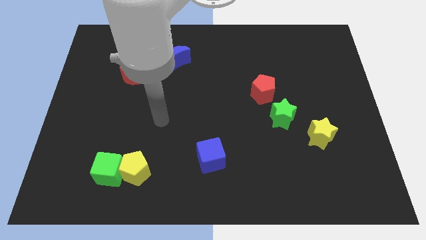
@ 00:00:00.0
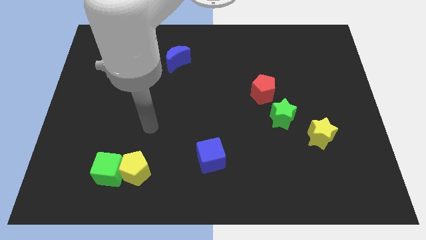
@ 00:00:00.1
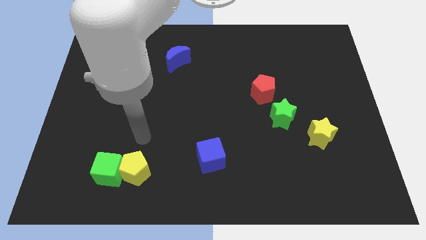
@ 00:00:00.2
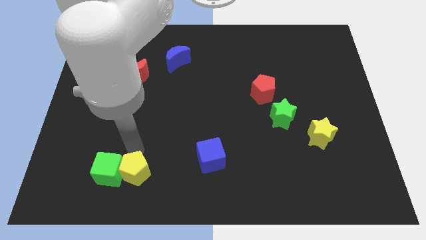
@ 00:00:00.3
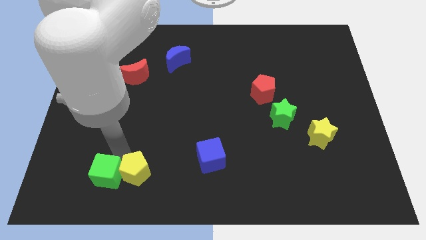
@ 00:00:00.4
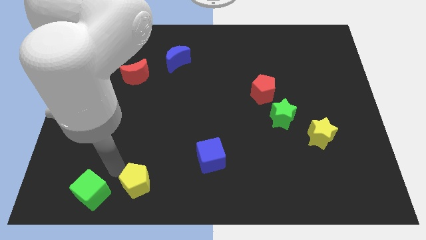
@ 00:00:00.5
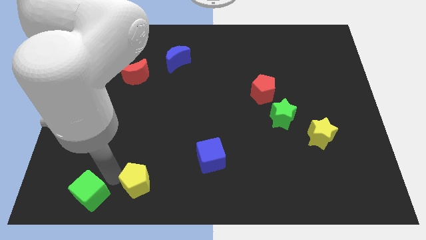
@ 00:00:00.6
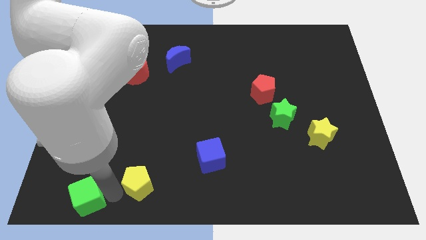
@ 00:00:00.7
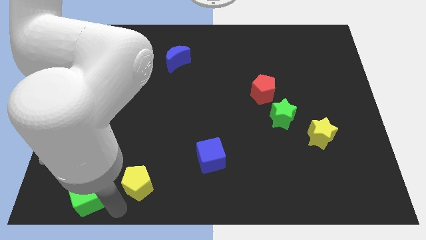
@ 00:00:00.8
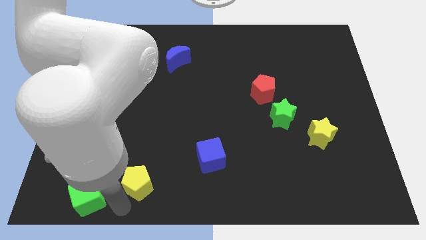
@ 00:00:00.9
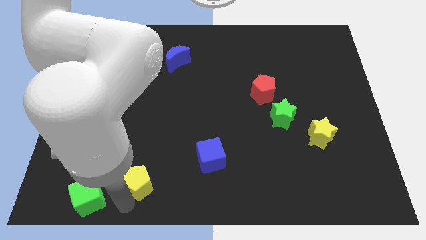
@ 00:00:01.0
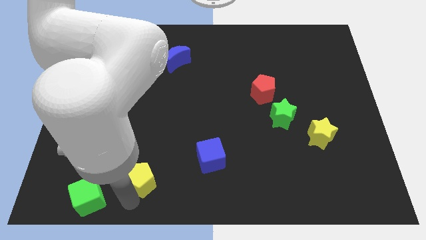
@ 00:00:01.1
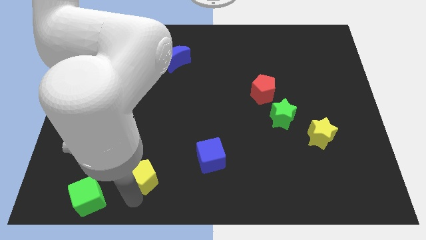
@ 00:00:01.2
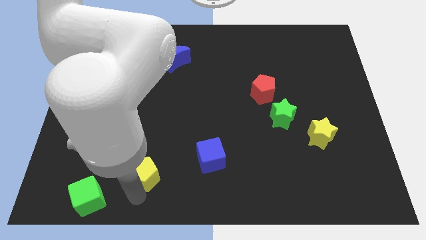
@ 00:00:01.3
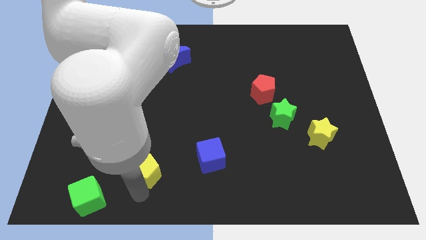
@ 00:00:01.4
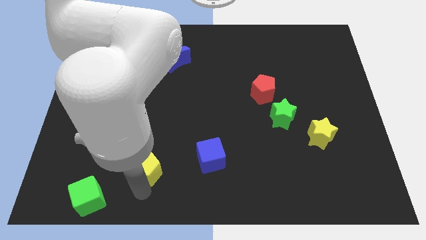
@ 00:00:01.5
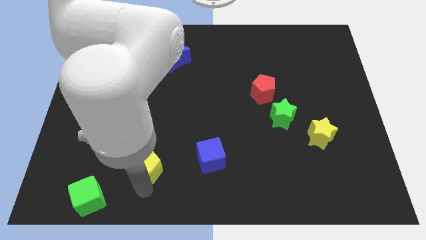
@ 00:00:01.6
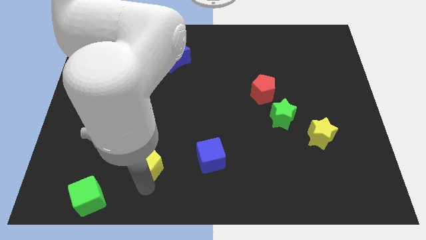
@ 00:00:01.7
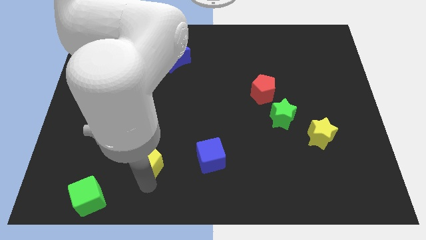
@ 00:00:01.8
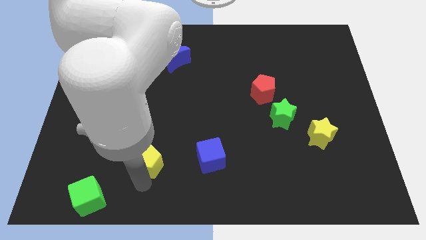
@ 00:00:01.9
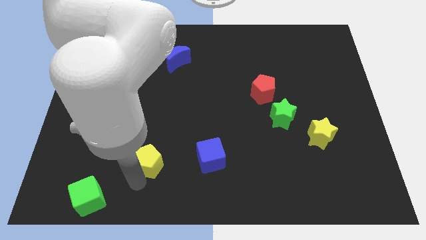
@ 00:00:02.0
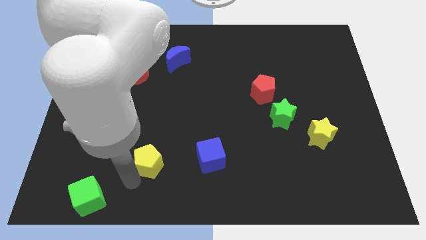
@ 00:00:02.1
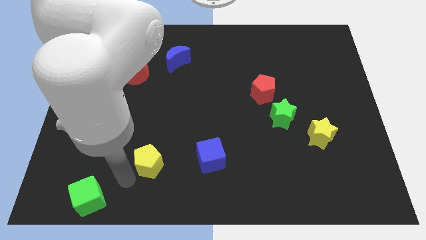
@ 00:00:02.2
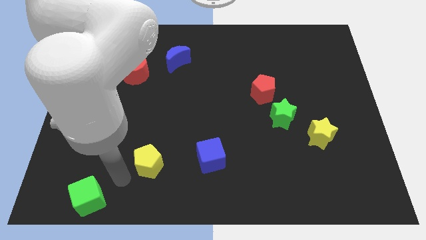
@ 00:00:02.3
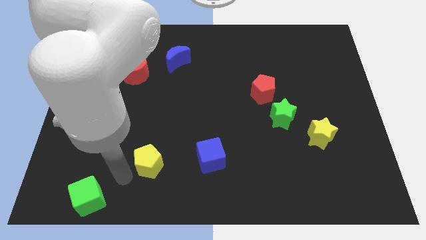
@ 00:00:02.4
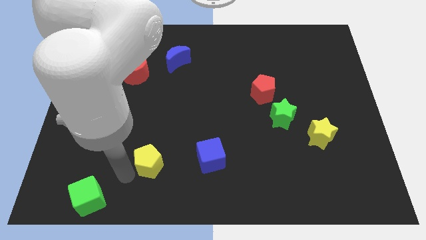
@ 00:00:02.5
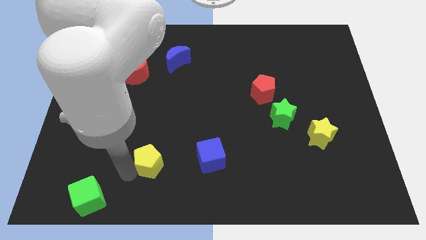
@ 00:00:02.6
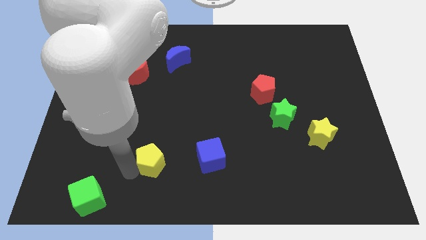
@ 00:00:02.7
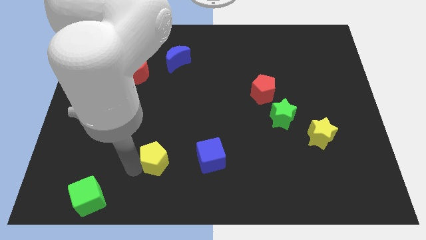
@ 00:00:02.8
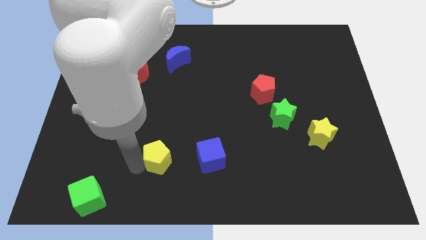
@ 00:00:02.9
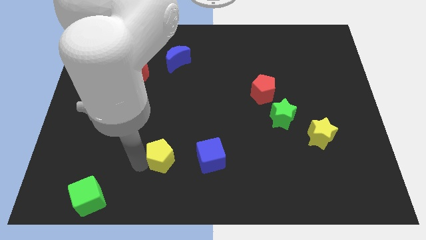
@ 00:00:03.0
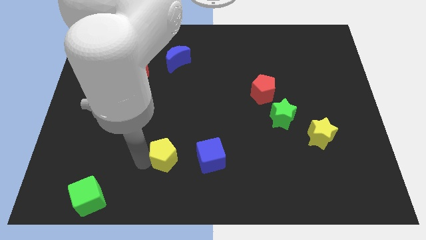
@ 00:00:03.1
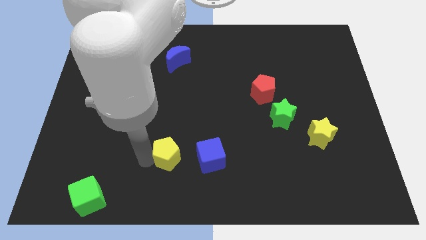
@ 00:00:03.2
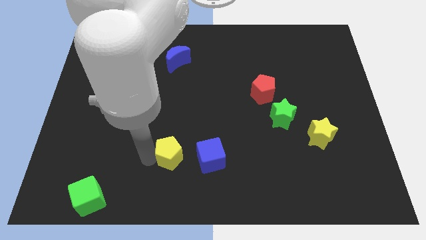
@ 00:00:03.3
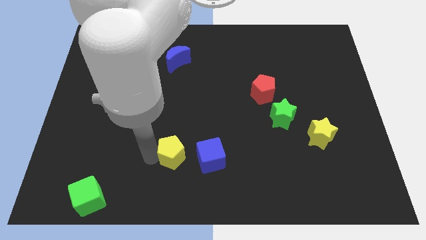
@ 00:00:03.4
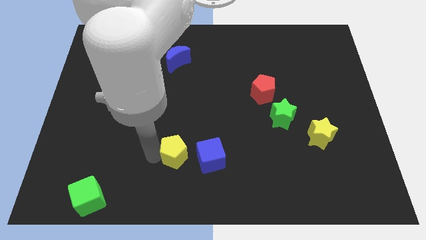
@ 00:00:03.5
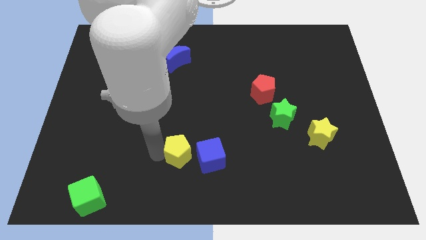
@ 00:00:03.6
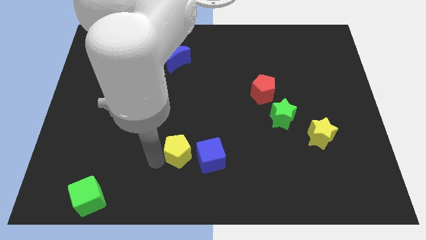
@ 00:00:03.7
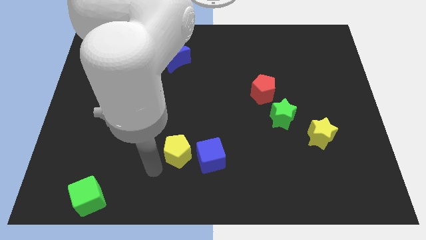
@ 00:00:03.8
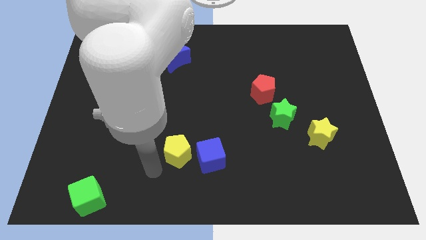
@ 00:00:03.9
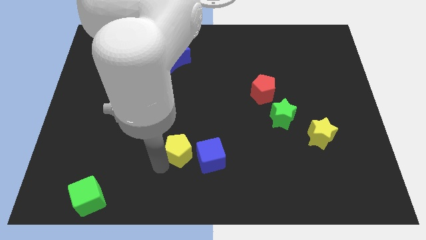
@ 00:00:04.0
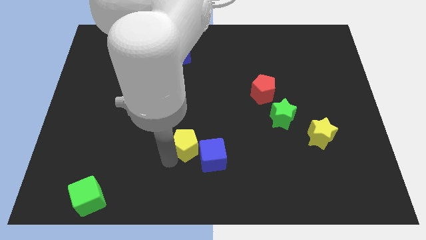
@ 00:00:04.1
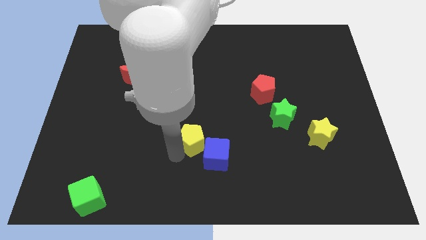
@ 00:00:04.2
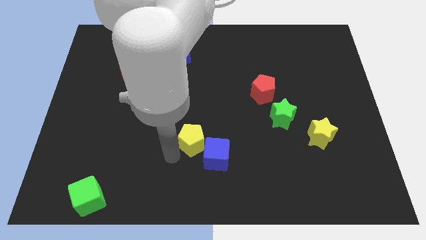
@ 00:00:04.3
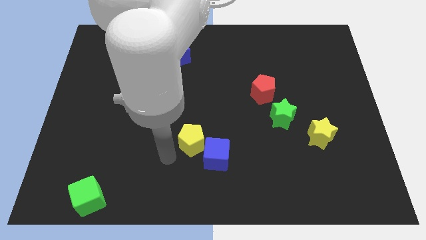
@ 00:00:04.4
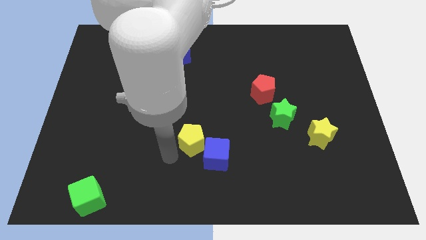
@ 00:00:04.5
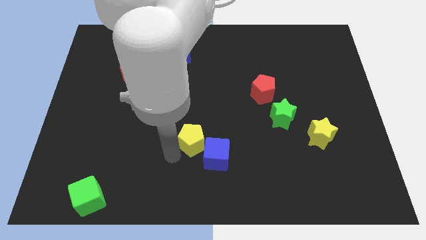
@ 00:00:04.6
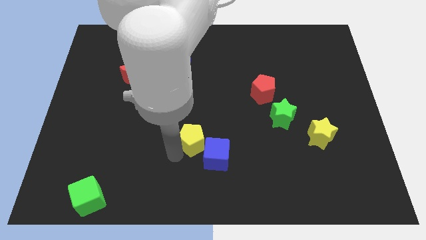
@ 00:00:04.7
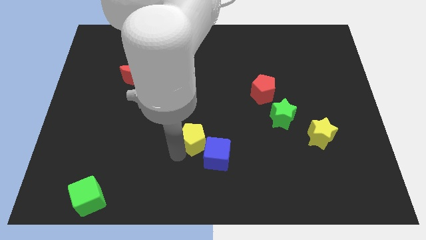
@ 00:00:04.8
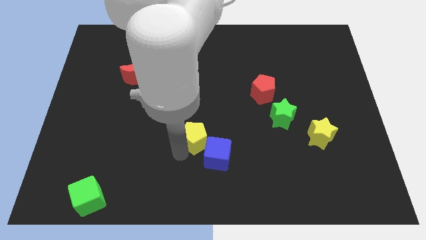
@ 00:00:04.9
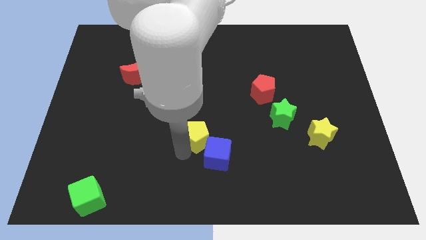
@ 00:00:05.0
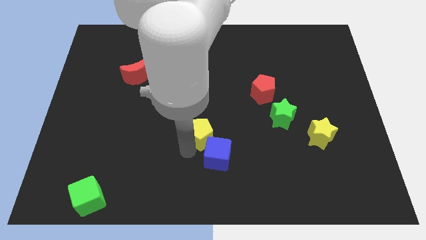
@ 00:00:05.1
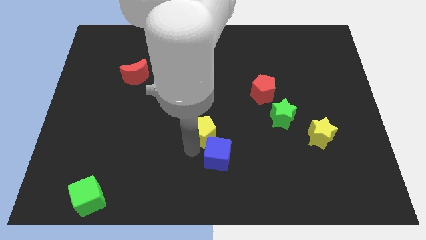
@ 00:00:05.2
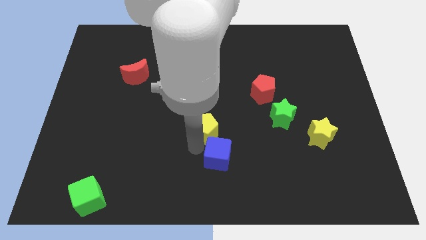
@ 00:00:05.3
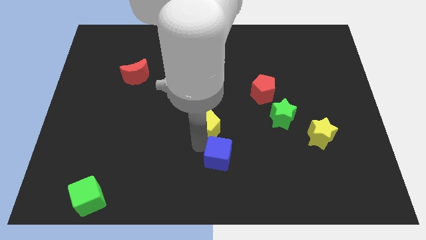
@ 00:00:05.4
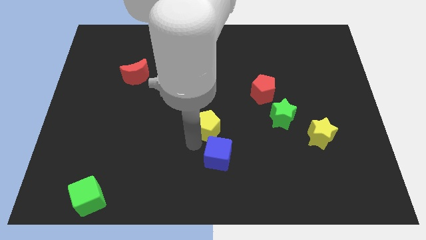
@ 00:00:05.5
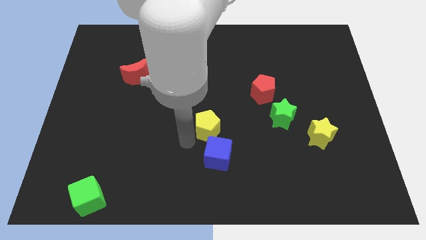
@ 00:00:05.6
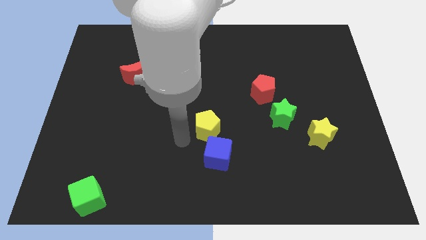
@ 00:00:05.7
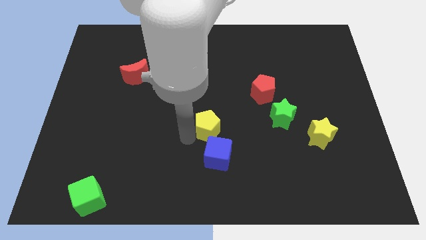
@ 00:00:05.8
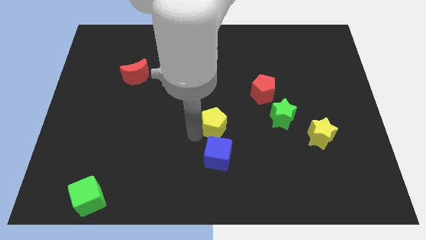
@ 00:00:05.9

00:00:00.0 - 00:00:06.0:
put the yellow pentagon to the left side of the green star

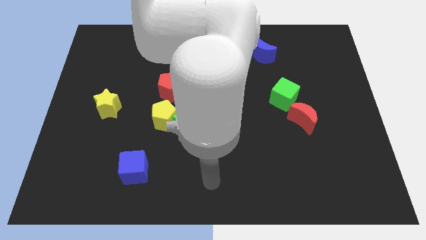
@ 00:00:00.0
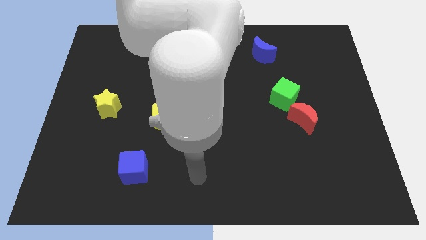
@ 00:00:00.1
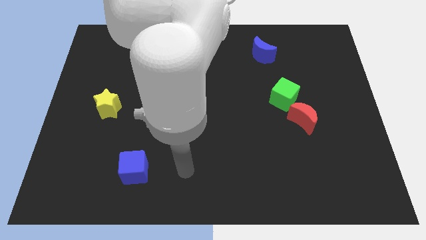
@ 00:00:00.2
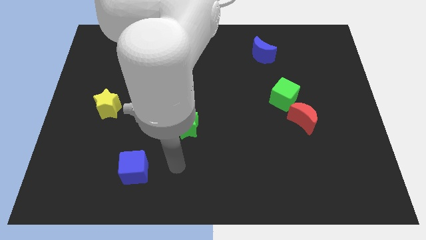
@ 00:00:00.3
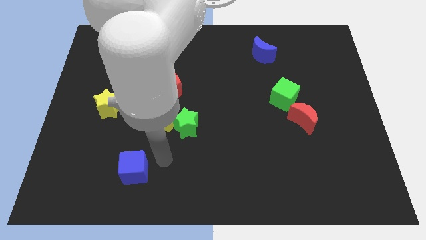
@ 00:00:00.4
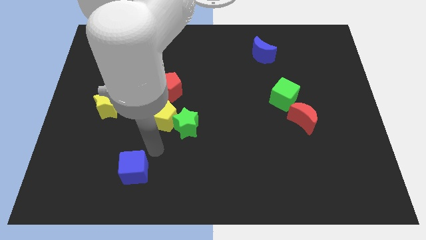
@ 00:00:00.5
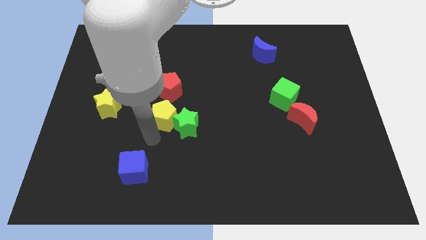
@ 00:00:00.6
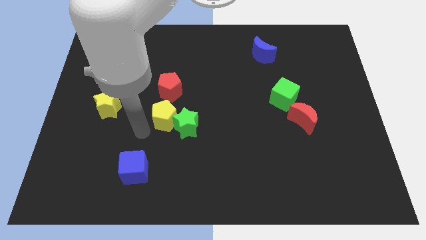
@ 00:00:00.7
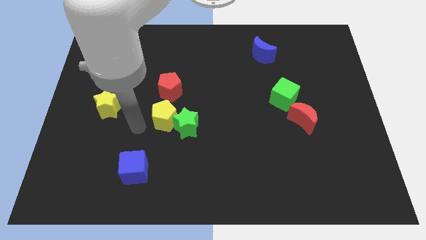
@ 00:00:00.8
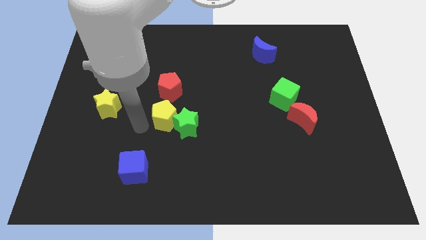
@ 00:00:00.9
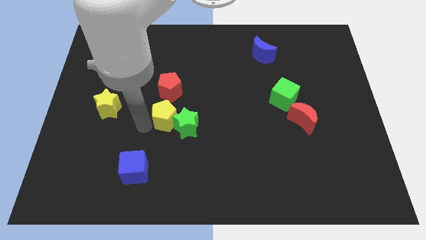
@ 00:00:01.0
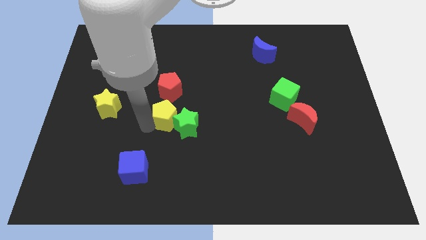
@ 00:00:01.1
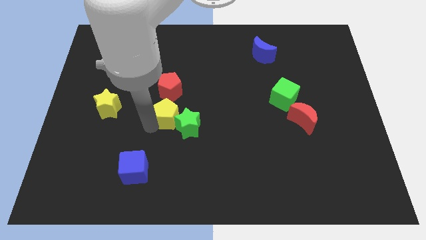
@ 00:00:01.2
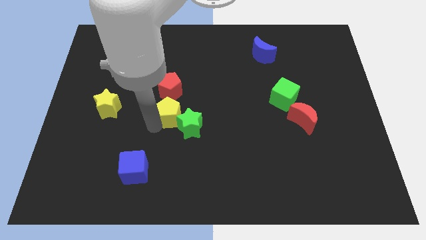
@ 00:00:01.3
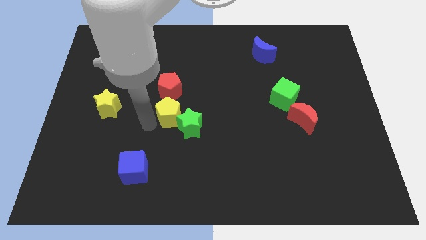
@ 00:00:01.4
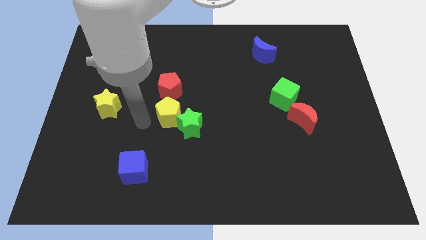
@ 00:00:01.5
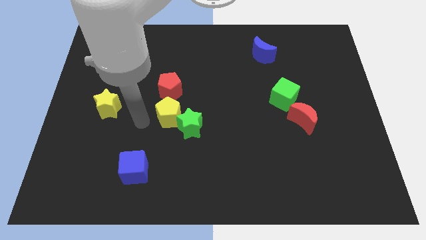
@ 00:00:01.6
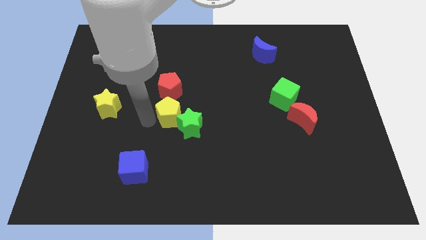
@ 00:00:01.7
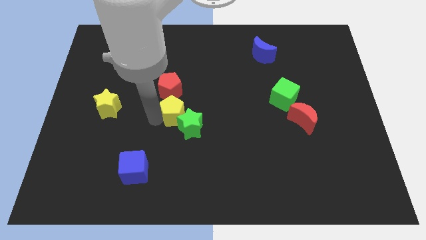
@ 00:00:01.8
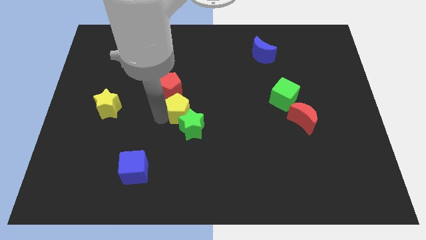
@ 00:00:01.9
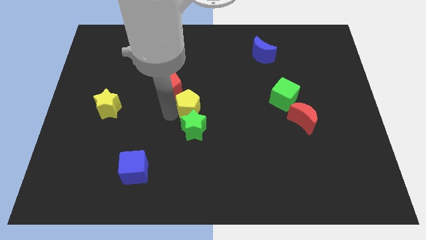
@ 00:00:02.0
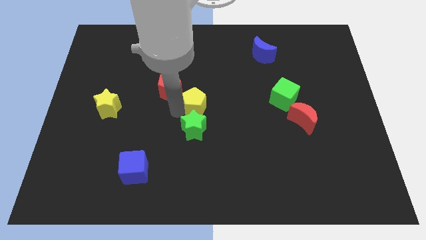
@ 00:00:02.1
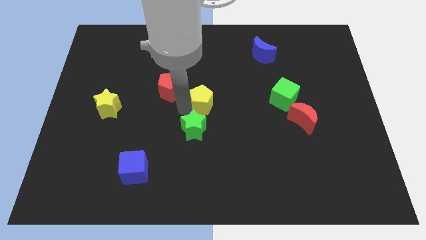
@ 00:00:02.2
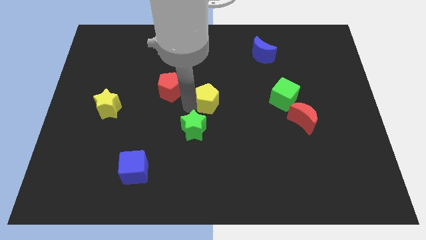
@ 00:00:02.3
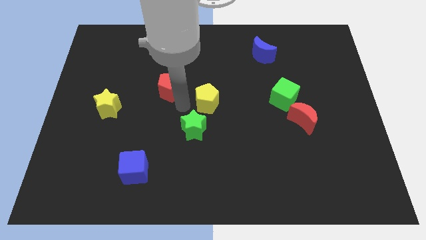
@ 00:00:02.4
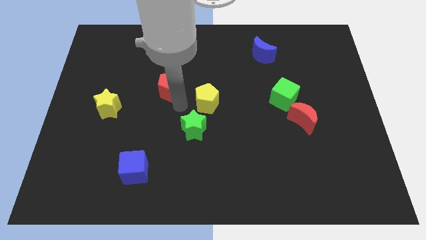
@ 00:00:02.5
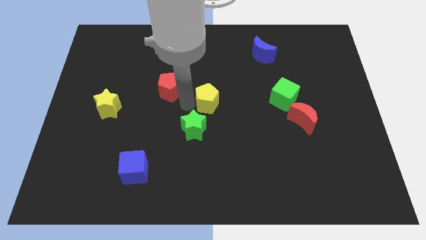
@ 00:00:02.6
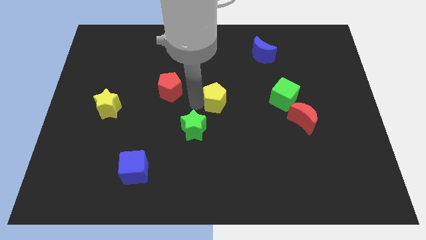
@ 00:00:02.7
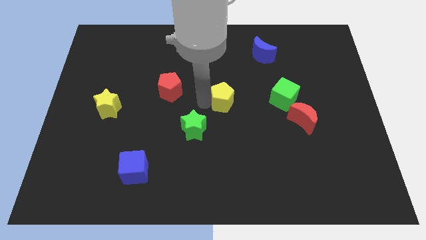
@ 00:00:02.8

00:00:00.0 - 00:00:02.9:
slide the yellow pentagon to the left side of the green cube
